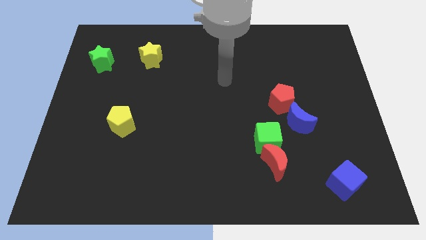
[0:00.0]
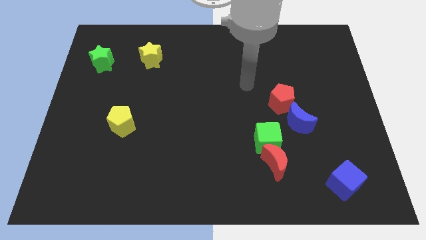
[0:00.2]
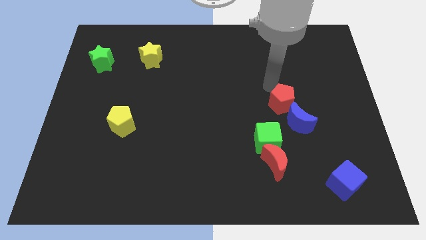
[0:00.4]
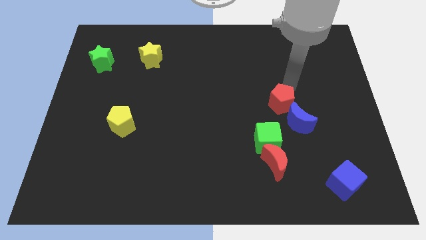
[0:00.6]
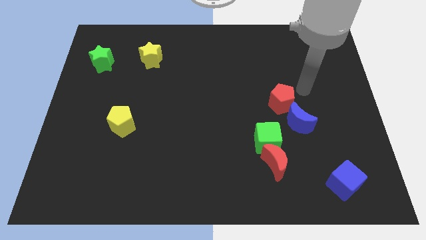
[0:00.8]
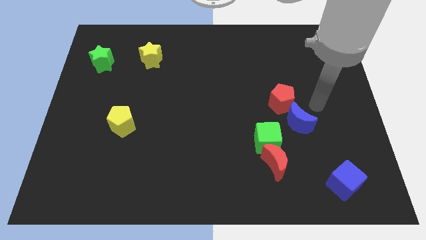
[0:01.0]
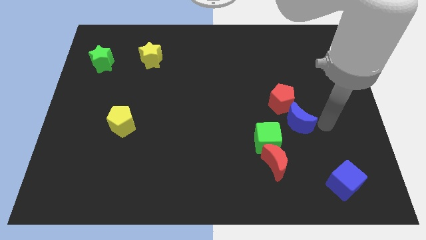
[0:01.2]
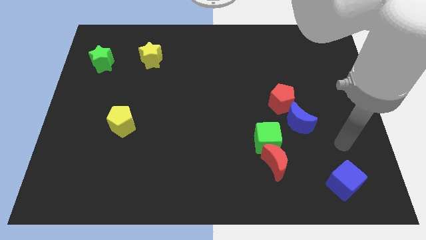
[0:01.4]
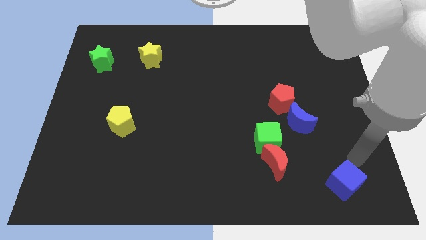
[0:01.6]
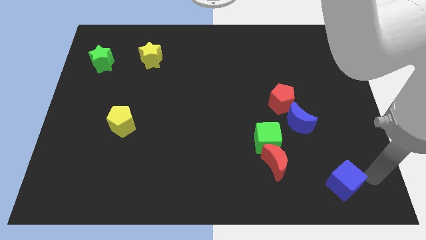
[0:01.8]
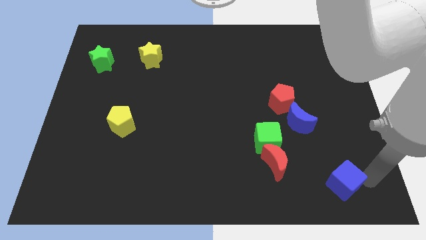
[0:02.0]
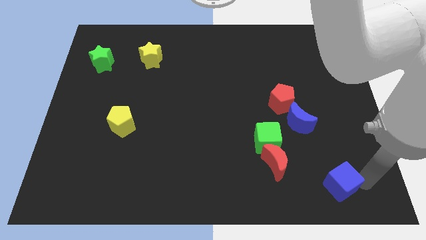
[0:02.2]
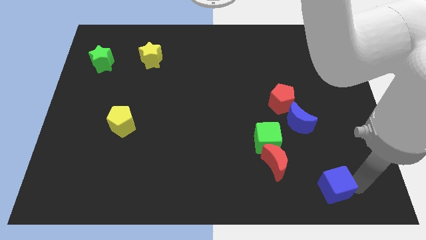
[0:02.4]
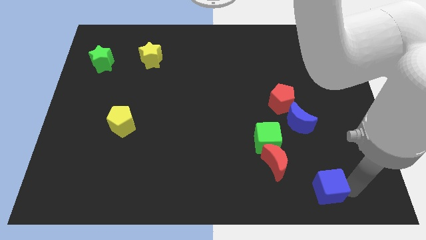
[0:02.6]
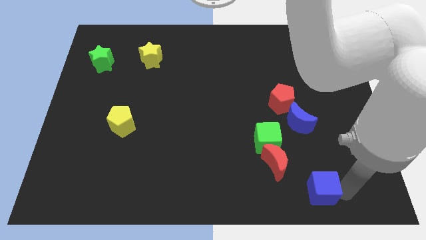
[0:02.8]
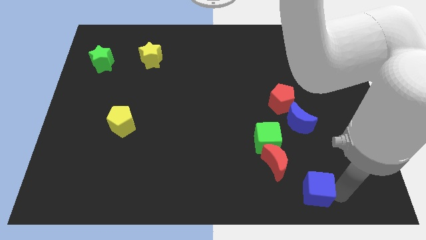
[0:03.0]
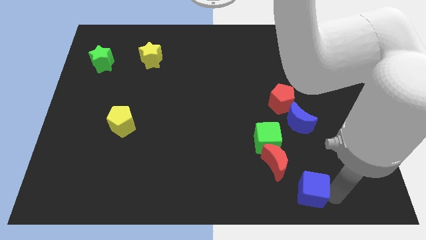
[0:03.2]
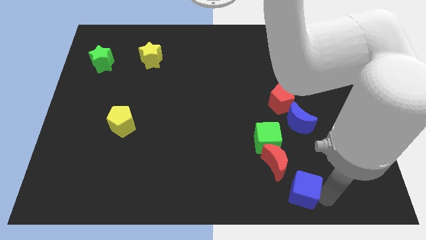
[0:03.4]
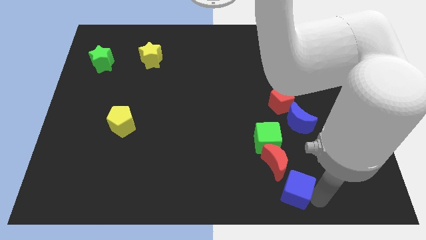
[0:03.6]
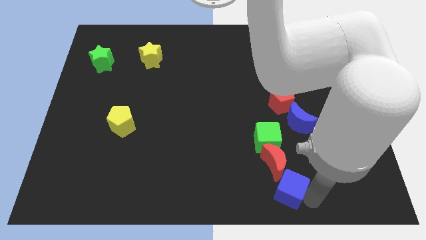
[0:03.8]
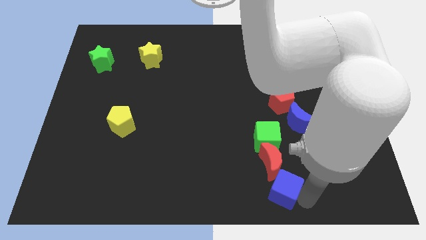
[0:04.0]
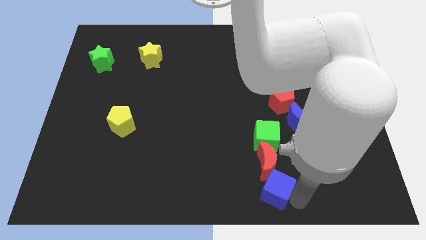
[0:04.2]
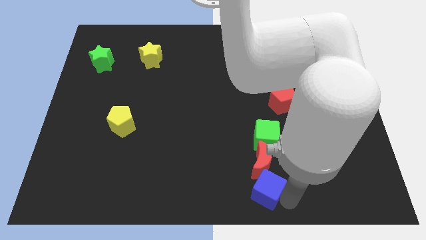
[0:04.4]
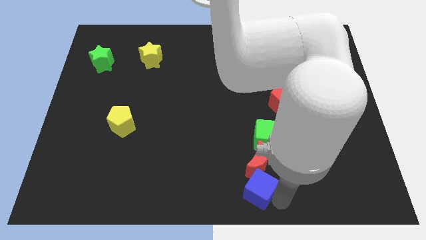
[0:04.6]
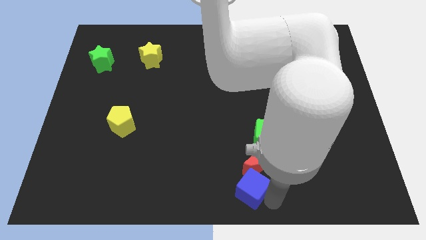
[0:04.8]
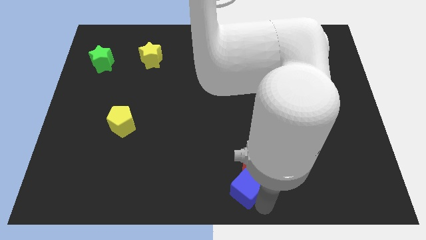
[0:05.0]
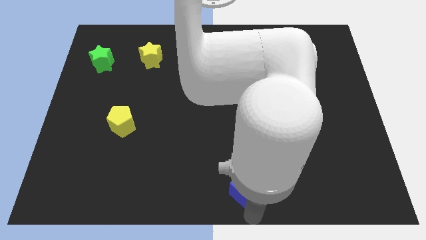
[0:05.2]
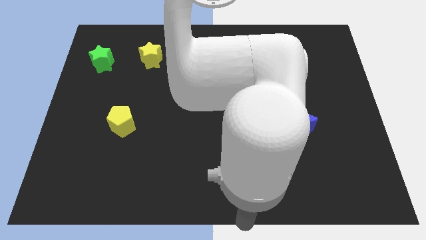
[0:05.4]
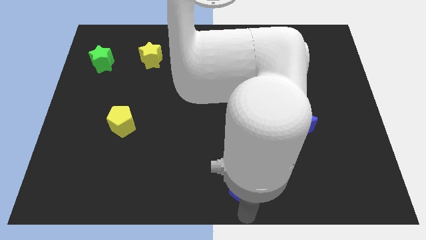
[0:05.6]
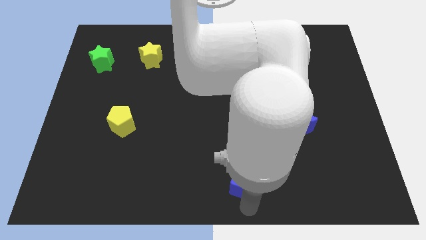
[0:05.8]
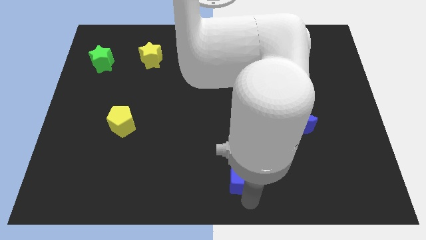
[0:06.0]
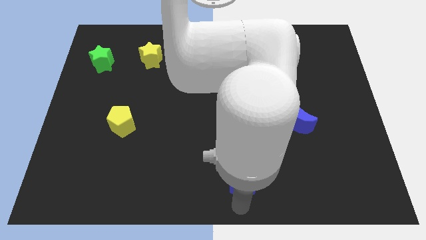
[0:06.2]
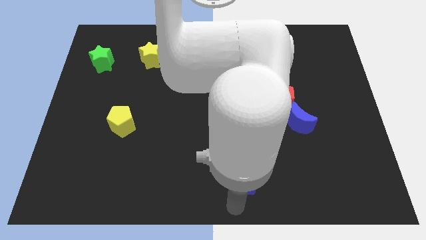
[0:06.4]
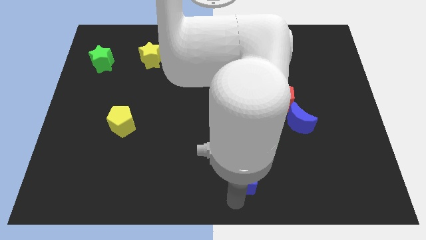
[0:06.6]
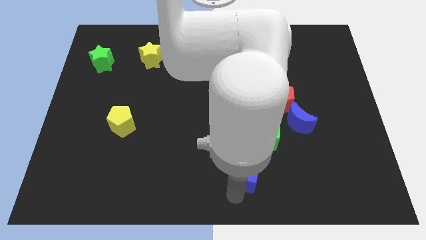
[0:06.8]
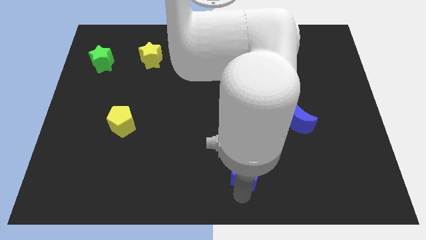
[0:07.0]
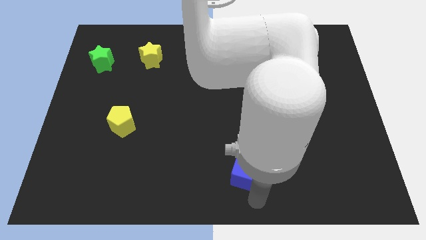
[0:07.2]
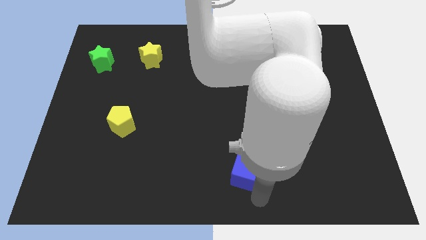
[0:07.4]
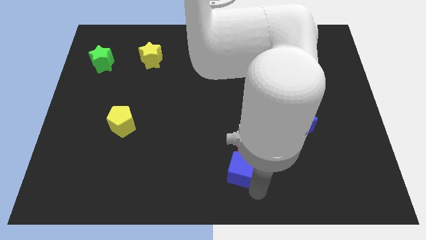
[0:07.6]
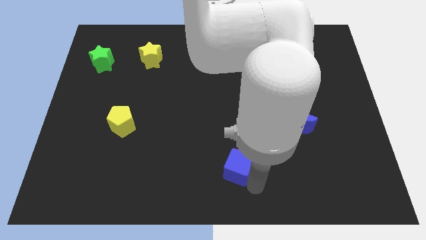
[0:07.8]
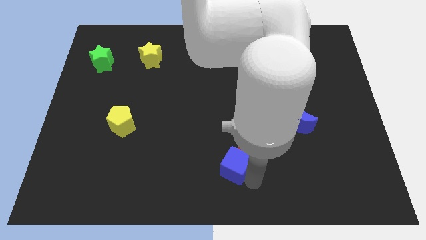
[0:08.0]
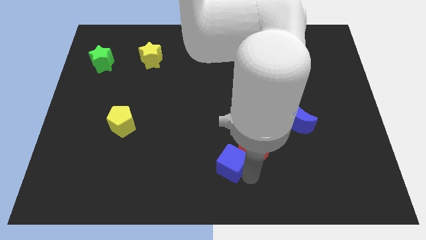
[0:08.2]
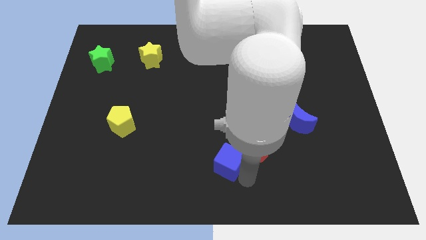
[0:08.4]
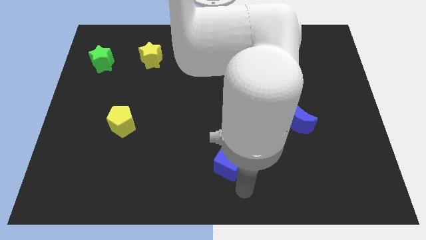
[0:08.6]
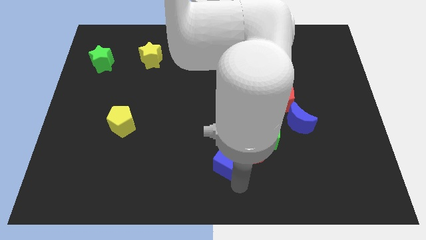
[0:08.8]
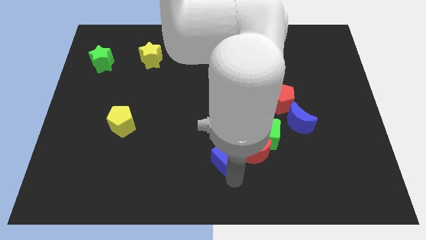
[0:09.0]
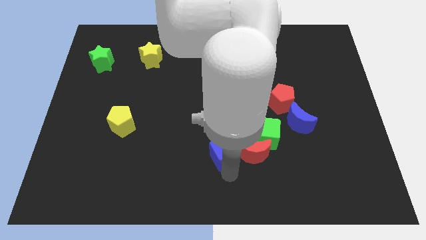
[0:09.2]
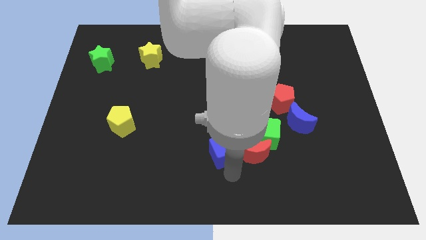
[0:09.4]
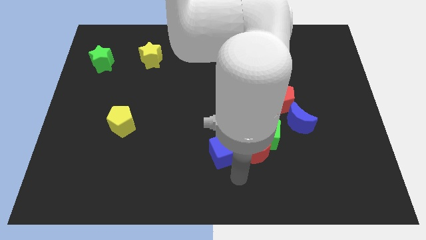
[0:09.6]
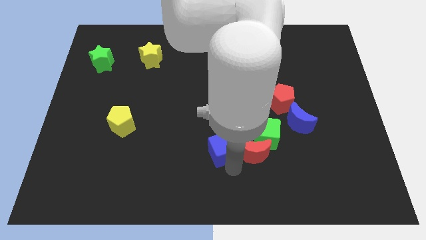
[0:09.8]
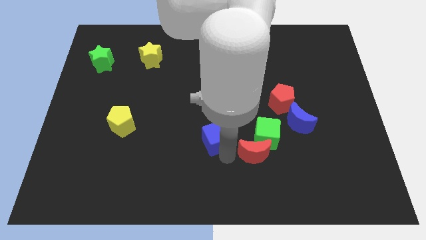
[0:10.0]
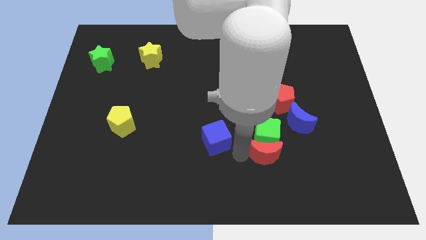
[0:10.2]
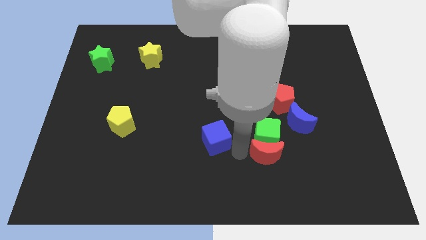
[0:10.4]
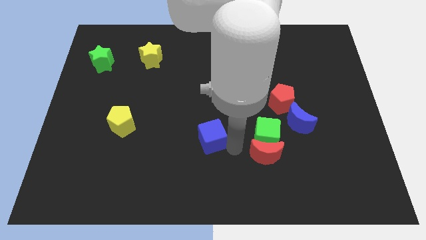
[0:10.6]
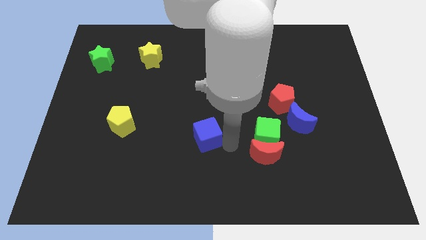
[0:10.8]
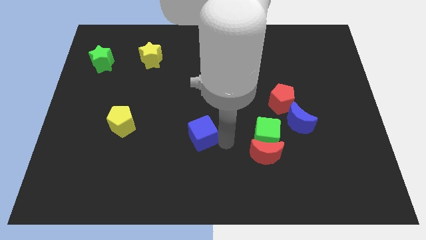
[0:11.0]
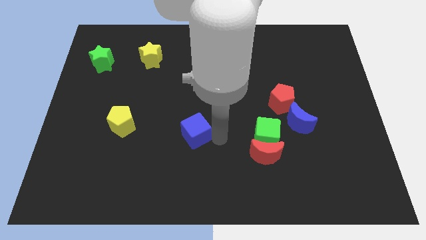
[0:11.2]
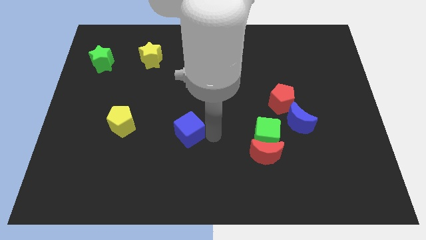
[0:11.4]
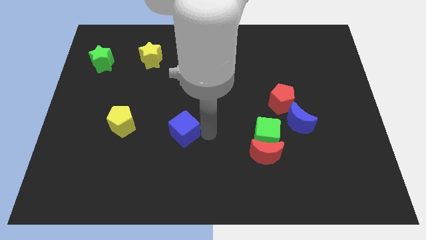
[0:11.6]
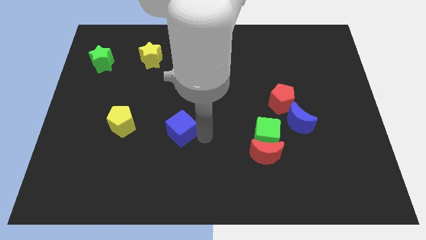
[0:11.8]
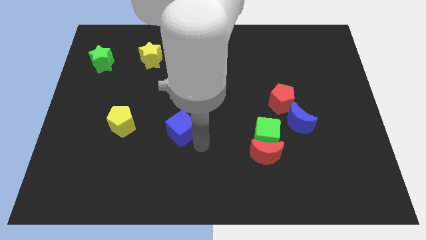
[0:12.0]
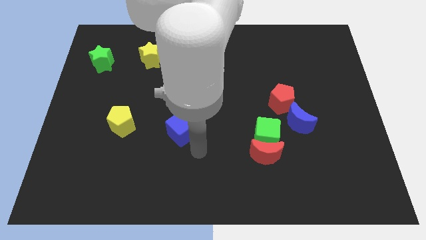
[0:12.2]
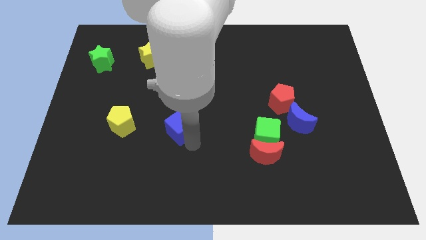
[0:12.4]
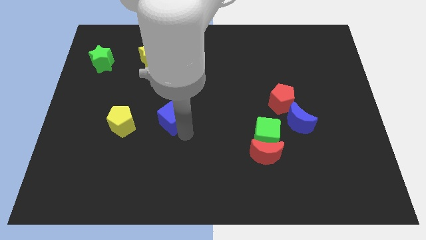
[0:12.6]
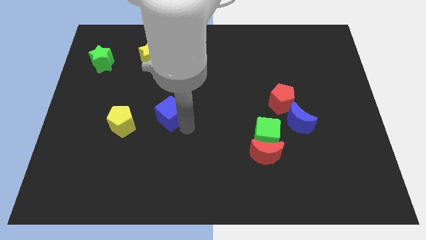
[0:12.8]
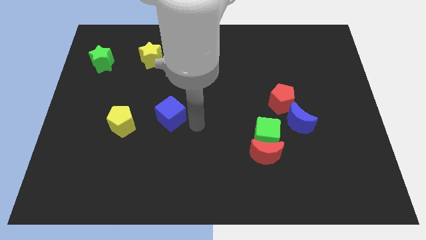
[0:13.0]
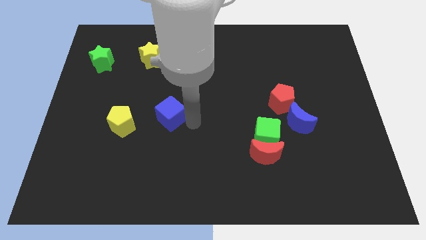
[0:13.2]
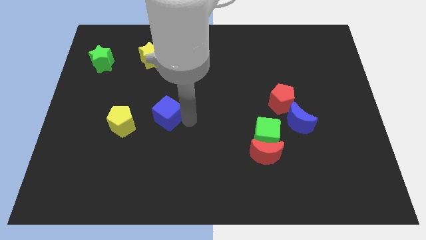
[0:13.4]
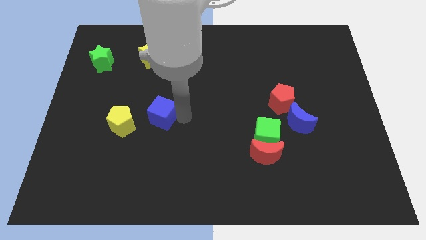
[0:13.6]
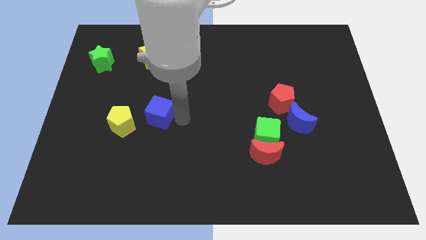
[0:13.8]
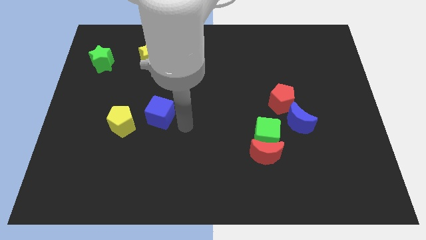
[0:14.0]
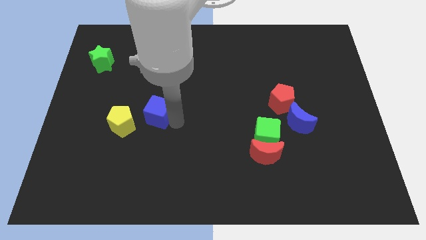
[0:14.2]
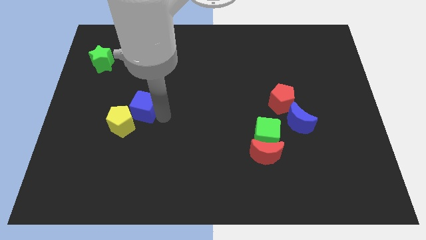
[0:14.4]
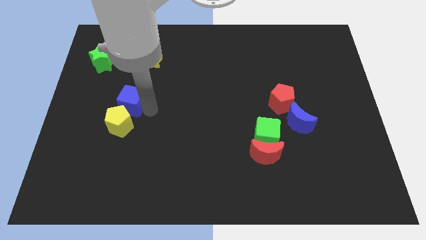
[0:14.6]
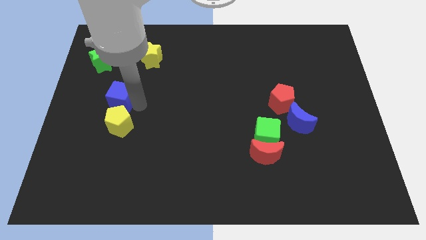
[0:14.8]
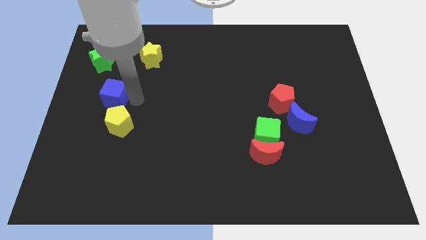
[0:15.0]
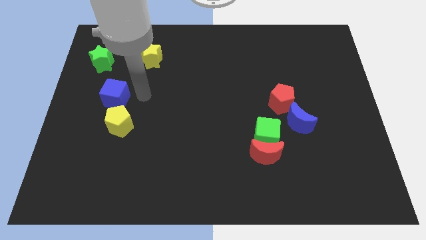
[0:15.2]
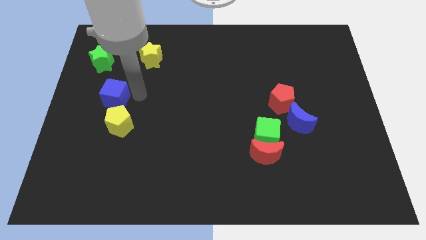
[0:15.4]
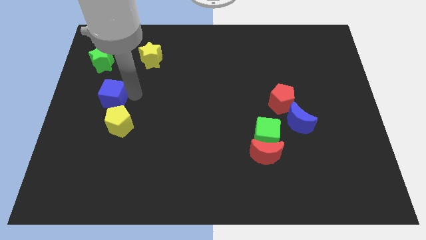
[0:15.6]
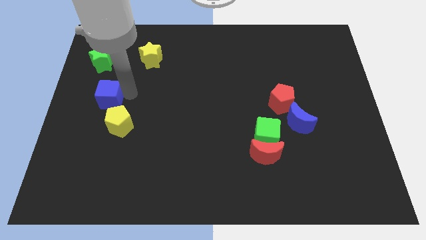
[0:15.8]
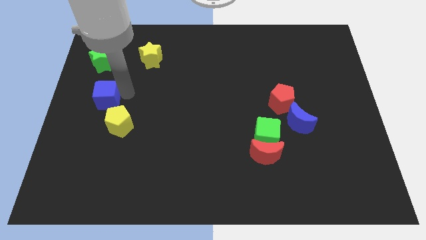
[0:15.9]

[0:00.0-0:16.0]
slide the blue cube to the center left
